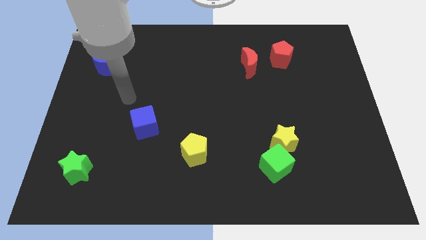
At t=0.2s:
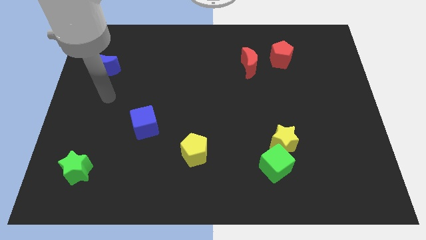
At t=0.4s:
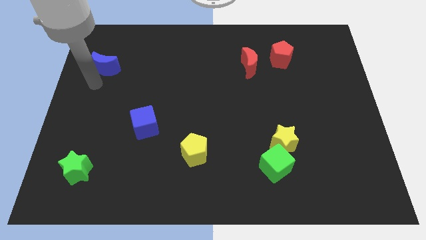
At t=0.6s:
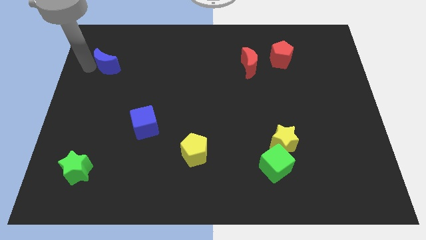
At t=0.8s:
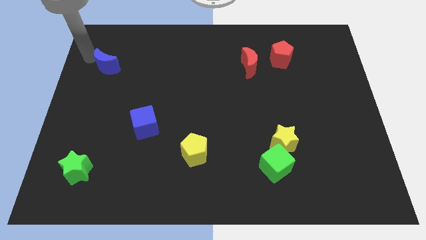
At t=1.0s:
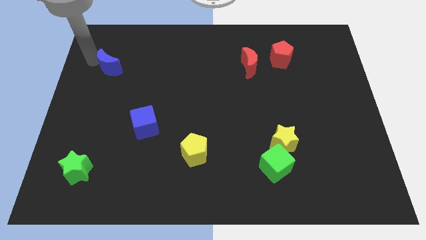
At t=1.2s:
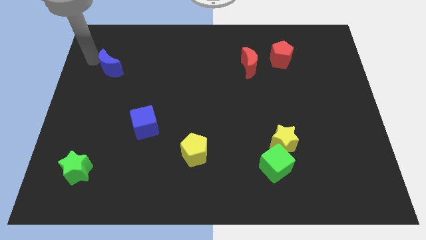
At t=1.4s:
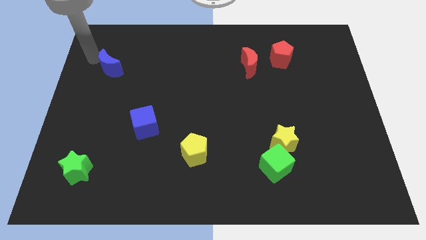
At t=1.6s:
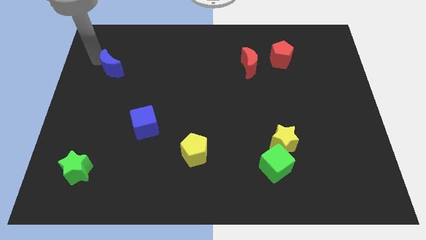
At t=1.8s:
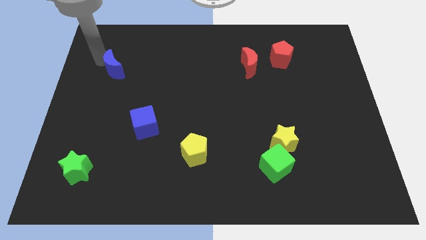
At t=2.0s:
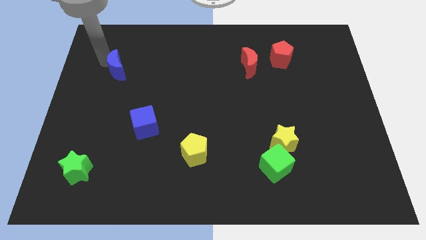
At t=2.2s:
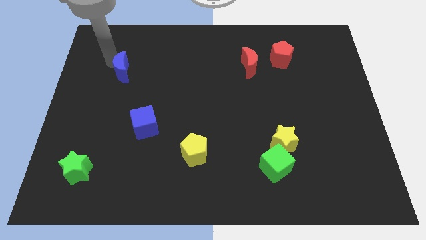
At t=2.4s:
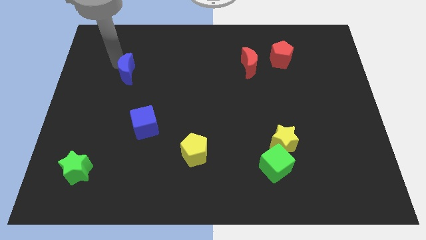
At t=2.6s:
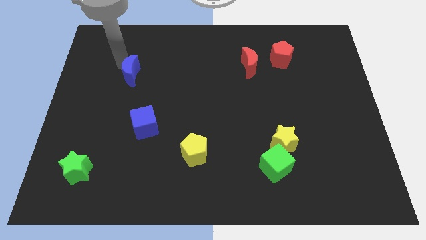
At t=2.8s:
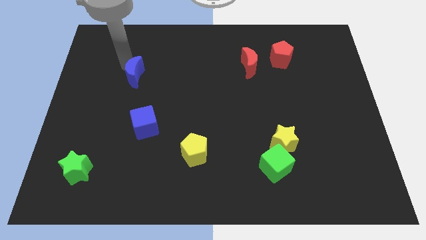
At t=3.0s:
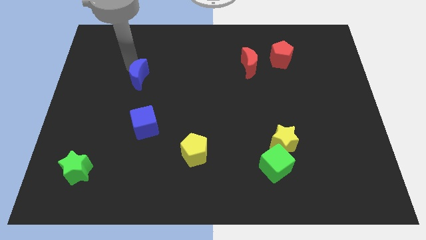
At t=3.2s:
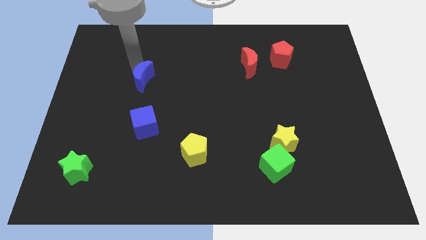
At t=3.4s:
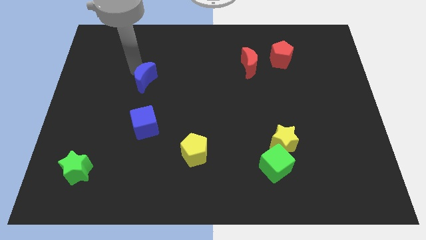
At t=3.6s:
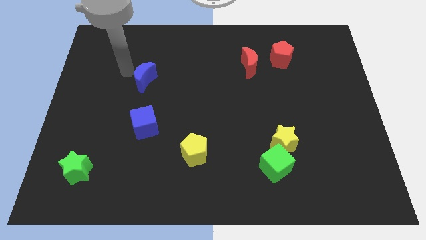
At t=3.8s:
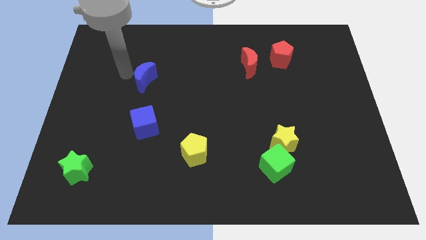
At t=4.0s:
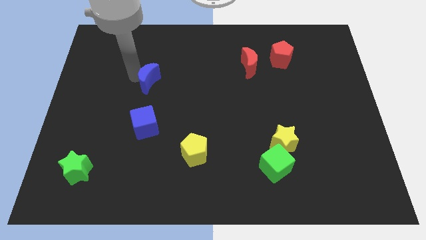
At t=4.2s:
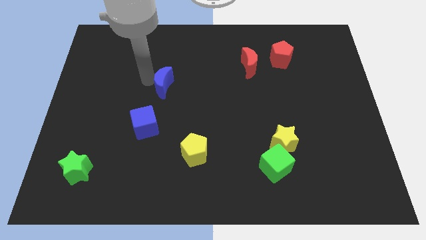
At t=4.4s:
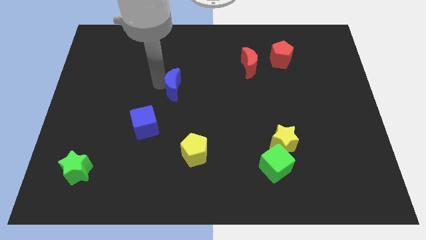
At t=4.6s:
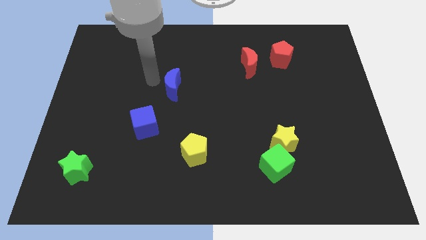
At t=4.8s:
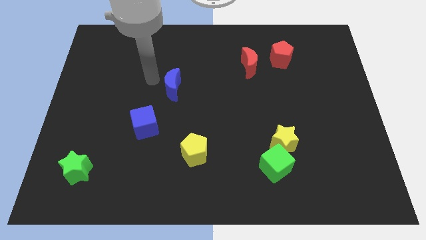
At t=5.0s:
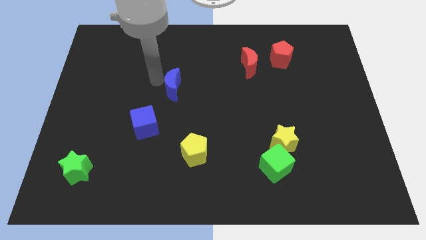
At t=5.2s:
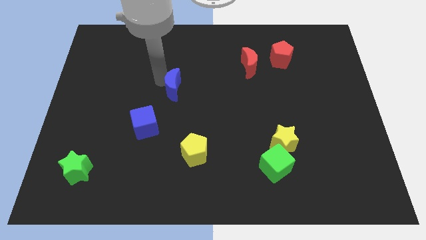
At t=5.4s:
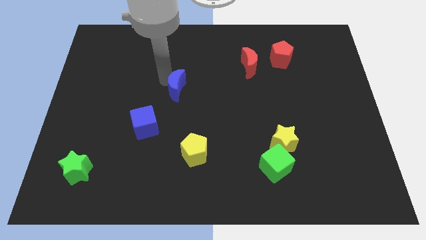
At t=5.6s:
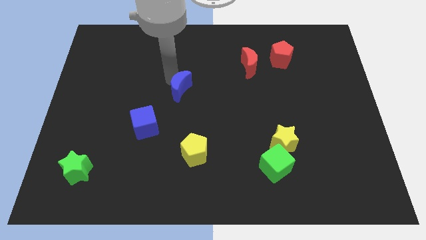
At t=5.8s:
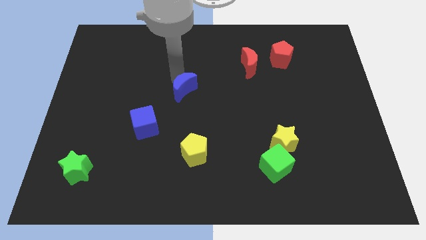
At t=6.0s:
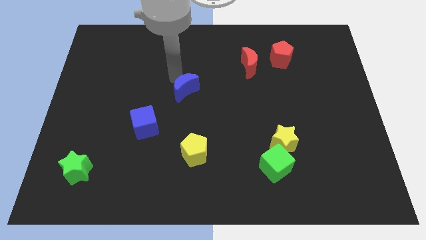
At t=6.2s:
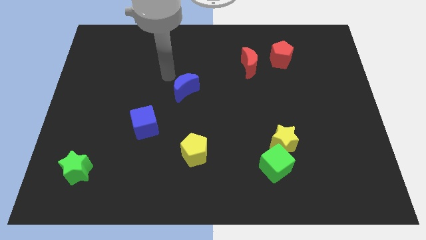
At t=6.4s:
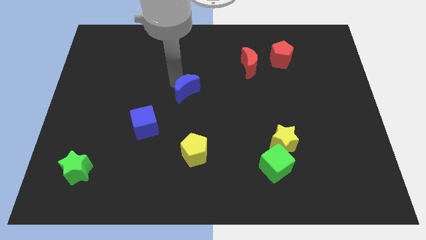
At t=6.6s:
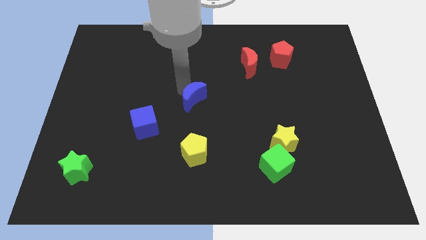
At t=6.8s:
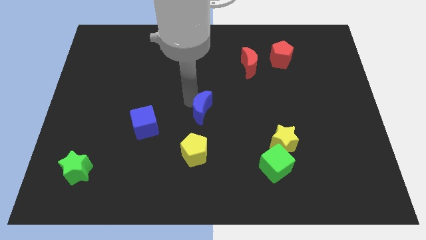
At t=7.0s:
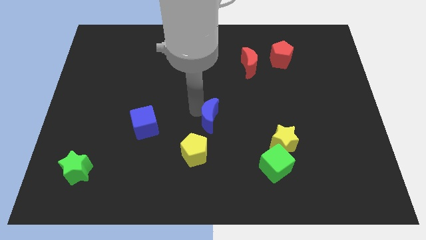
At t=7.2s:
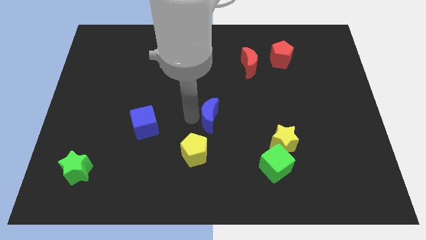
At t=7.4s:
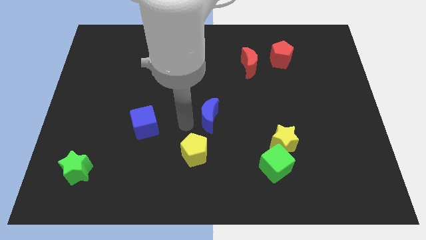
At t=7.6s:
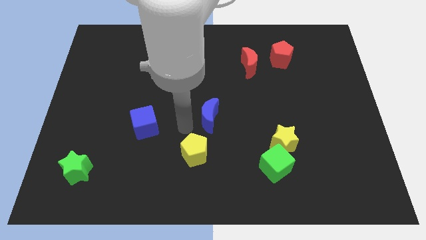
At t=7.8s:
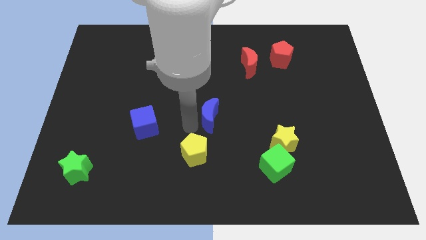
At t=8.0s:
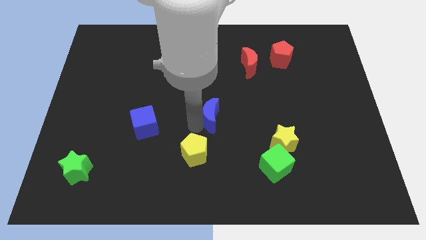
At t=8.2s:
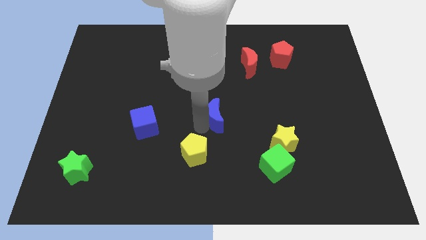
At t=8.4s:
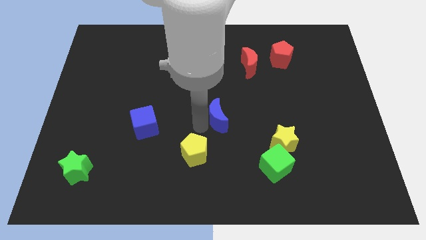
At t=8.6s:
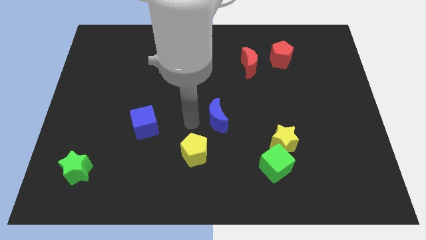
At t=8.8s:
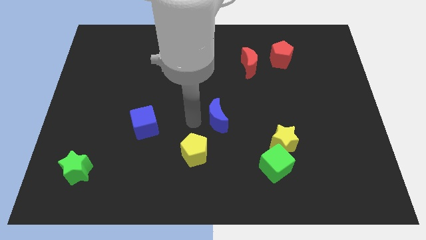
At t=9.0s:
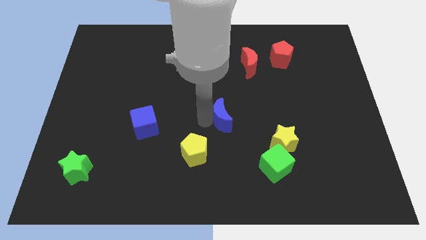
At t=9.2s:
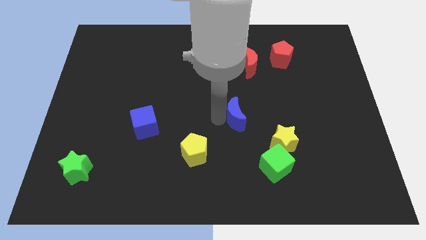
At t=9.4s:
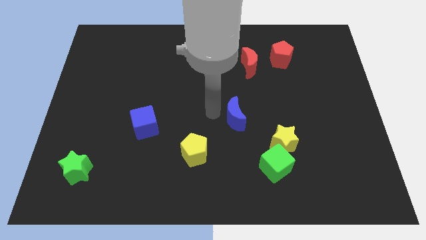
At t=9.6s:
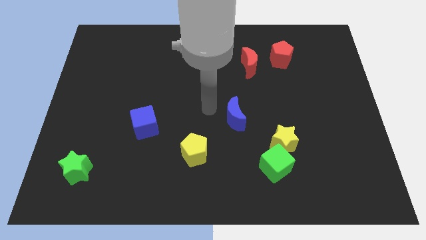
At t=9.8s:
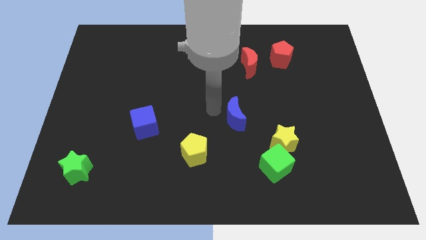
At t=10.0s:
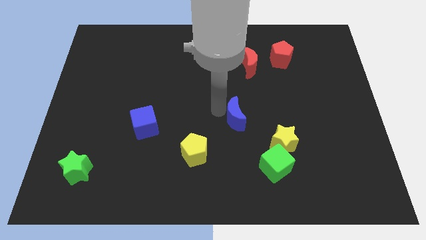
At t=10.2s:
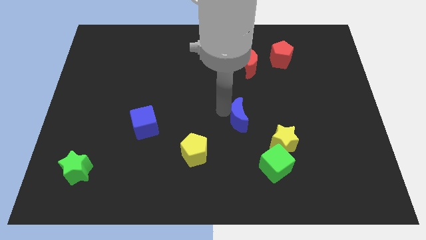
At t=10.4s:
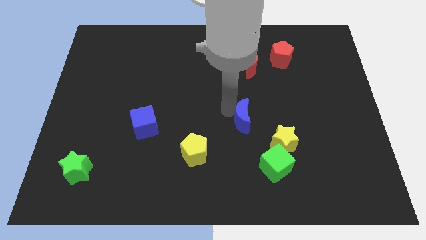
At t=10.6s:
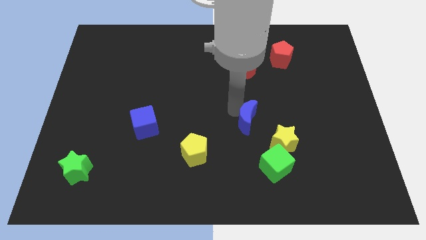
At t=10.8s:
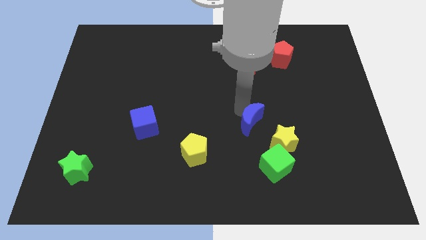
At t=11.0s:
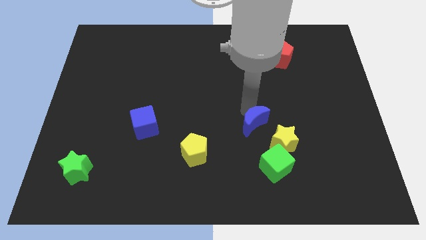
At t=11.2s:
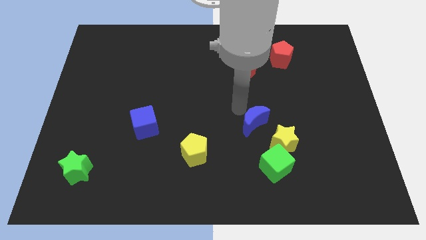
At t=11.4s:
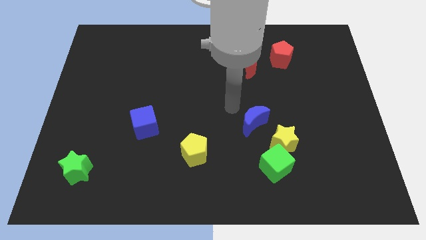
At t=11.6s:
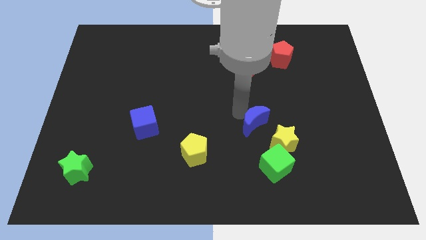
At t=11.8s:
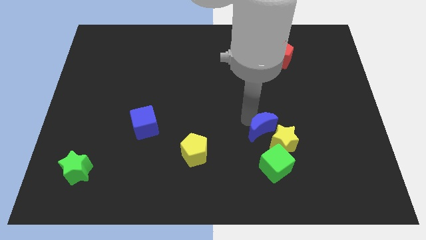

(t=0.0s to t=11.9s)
move the blue moon towards the yellow star

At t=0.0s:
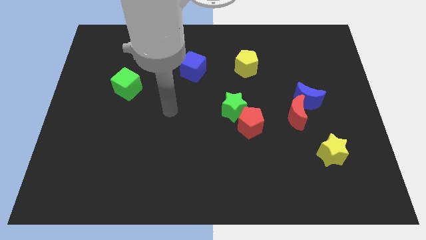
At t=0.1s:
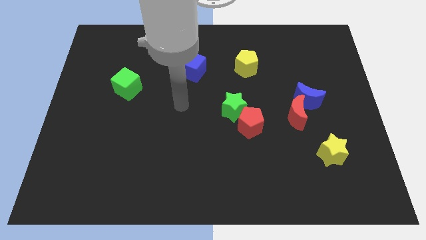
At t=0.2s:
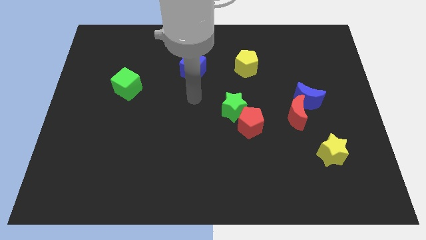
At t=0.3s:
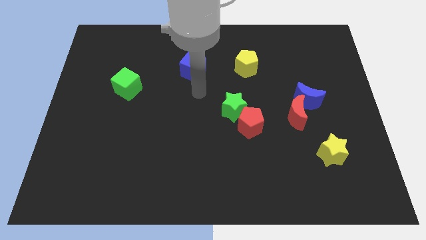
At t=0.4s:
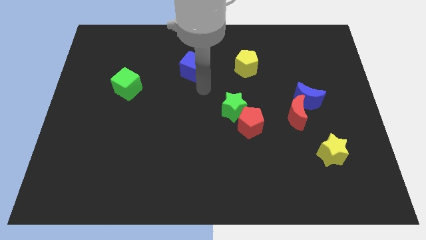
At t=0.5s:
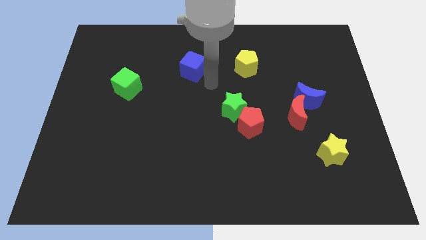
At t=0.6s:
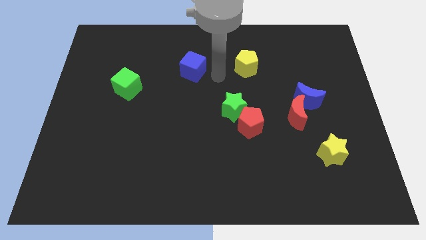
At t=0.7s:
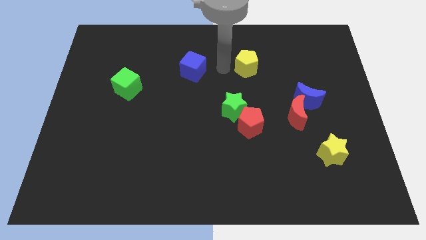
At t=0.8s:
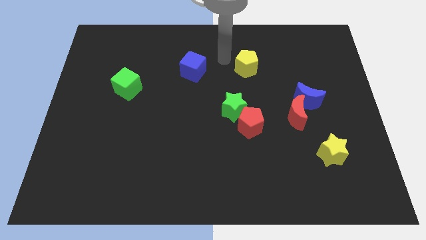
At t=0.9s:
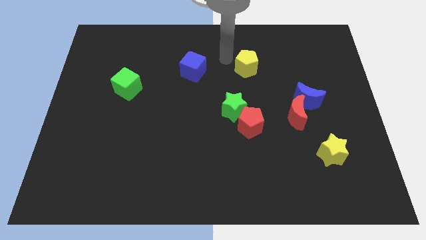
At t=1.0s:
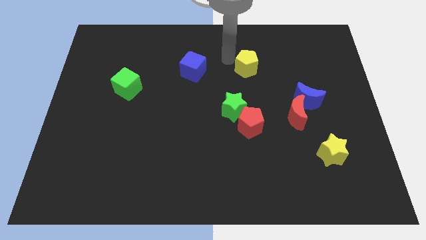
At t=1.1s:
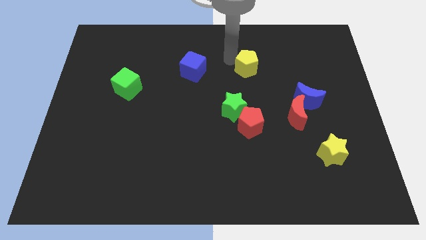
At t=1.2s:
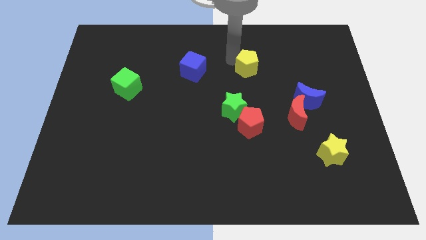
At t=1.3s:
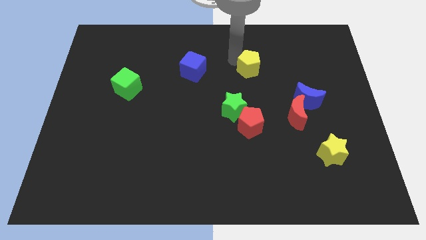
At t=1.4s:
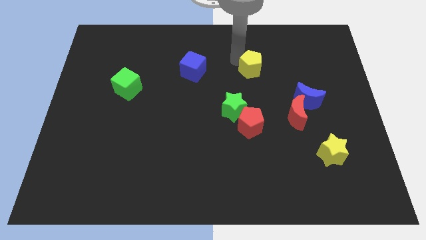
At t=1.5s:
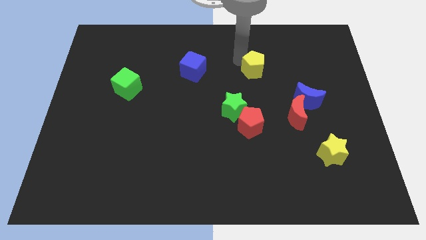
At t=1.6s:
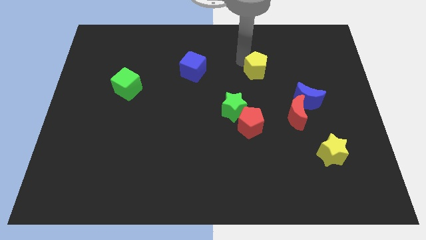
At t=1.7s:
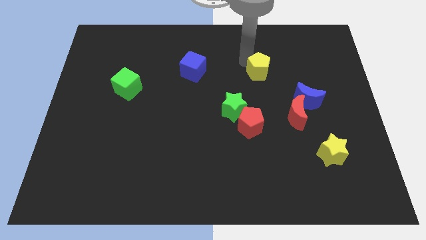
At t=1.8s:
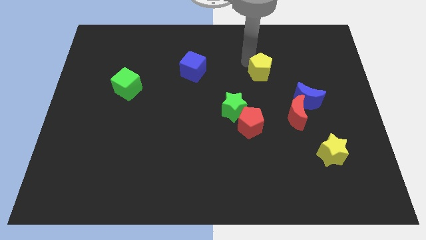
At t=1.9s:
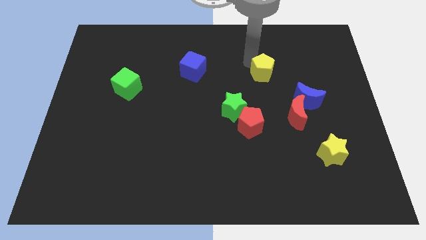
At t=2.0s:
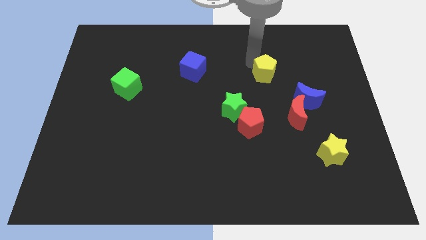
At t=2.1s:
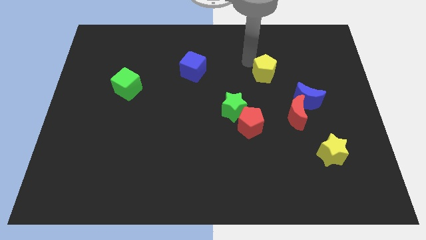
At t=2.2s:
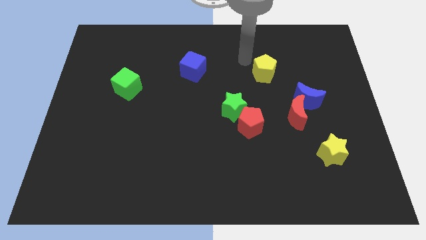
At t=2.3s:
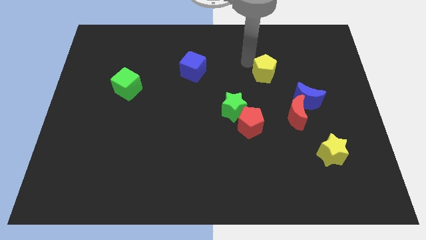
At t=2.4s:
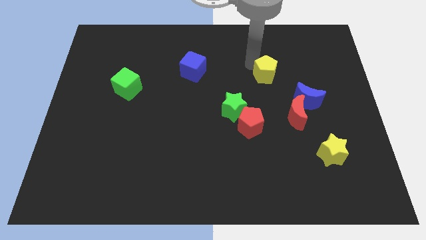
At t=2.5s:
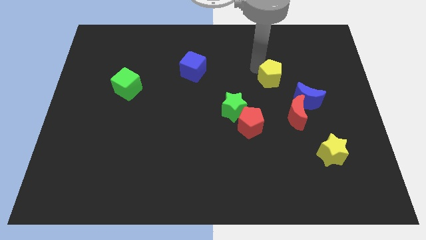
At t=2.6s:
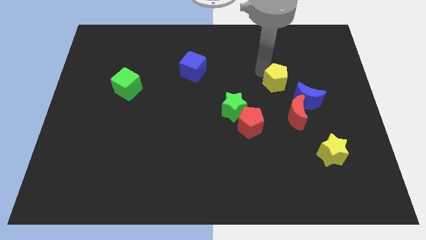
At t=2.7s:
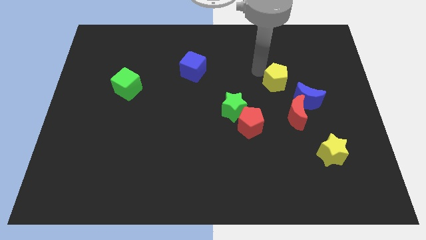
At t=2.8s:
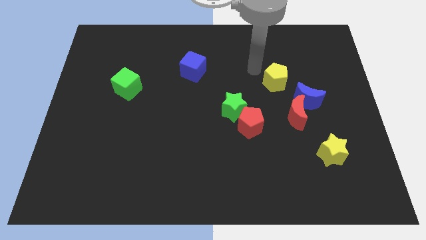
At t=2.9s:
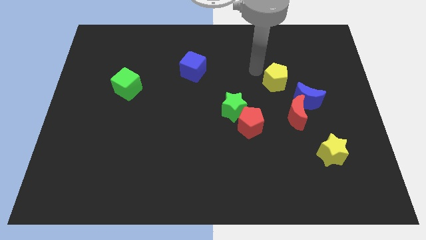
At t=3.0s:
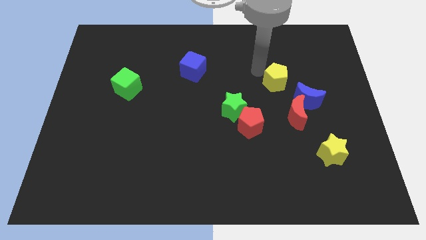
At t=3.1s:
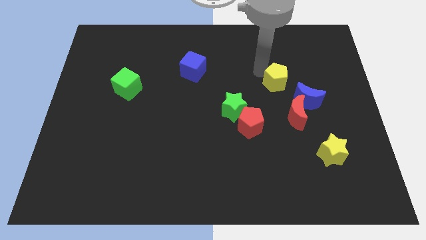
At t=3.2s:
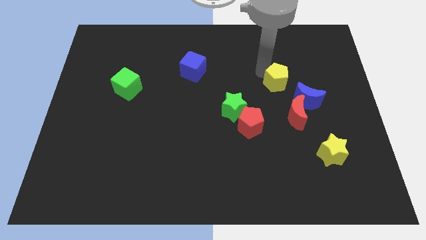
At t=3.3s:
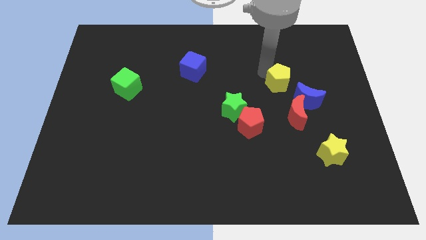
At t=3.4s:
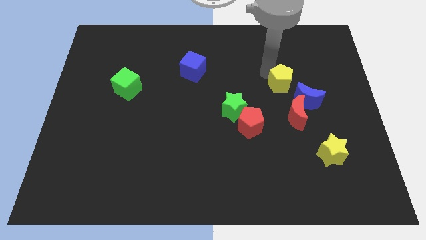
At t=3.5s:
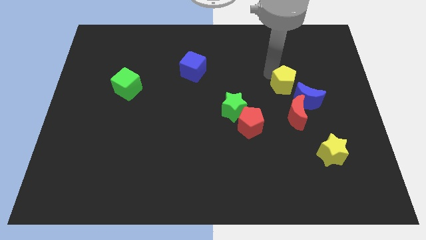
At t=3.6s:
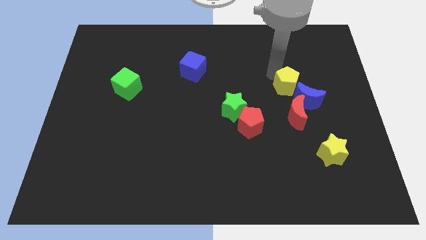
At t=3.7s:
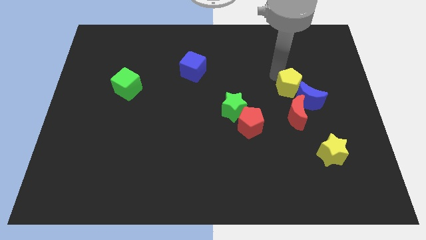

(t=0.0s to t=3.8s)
slide the yellow pentagon towards the blue moon
